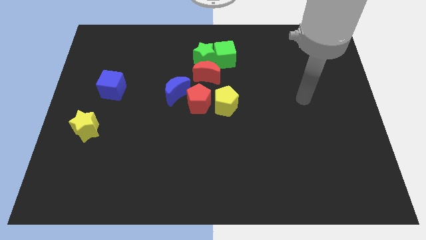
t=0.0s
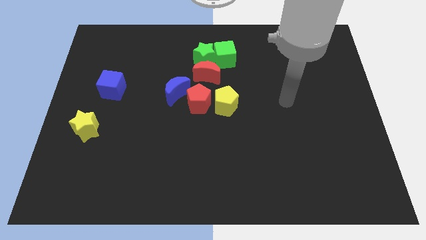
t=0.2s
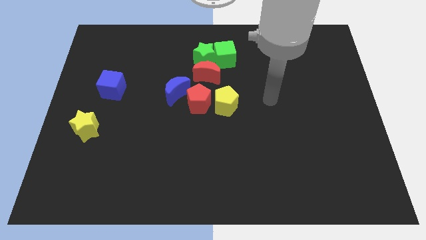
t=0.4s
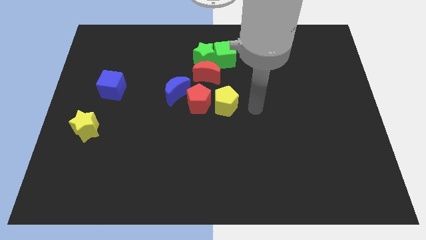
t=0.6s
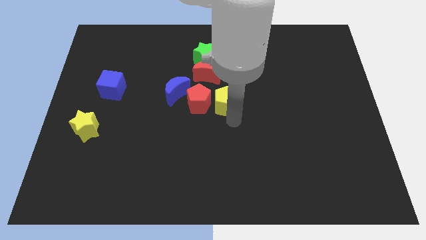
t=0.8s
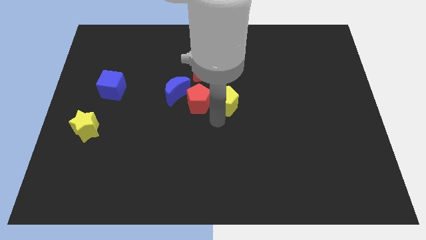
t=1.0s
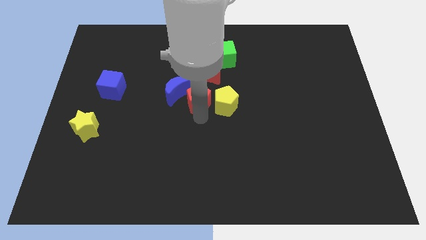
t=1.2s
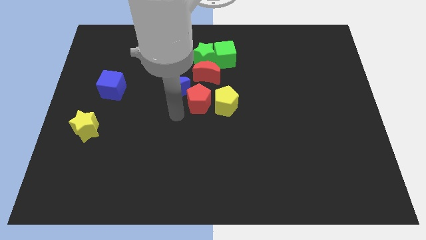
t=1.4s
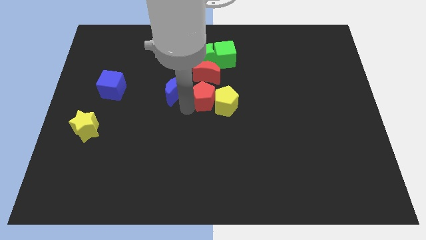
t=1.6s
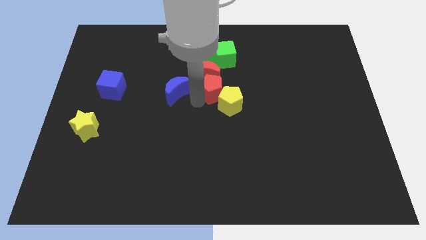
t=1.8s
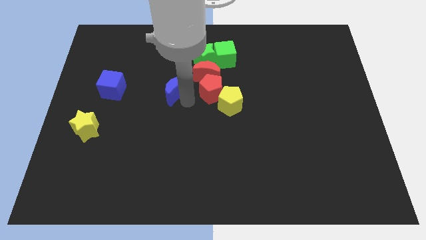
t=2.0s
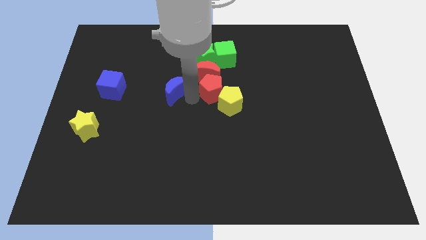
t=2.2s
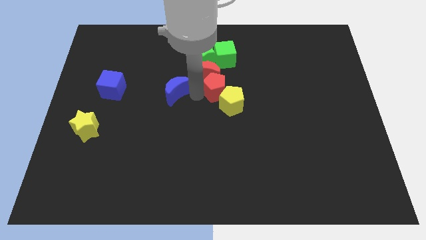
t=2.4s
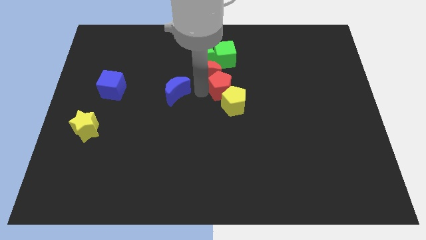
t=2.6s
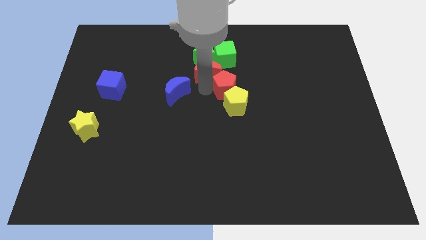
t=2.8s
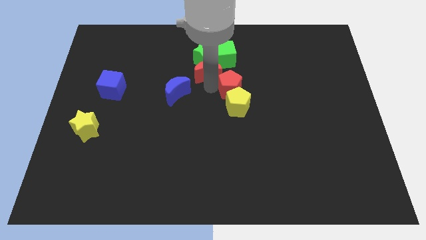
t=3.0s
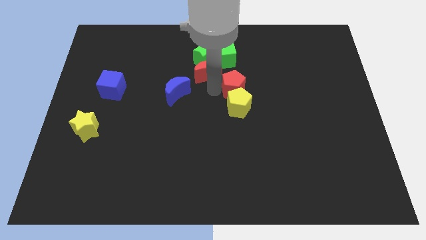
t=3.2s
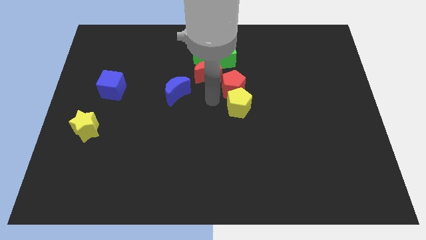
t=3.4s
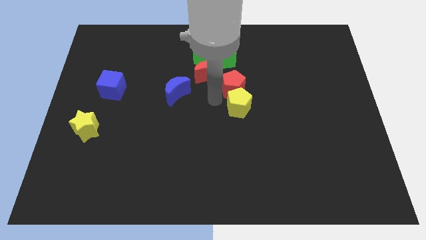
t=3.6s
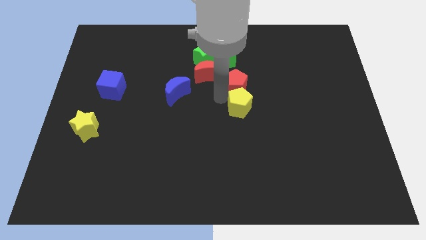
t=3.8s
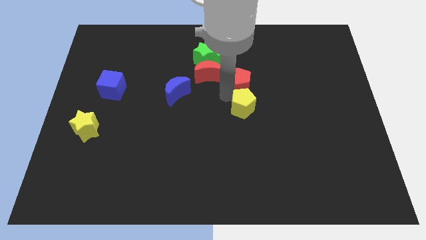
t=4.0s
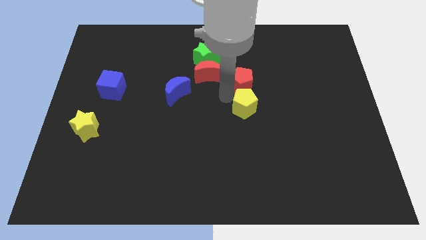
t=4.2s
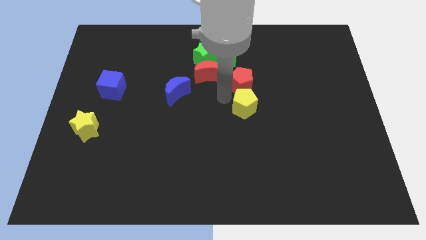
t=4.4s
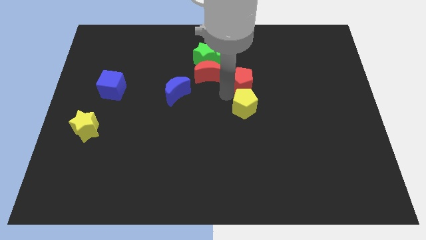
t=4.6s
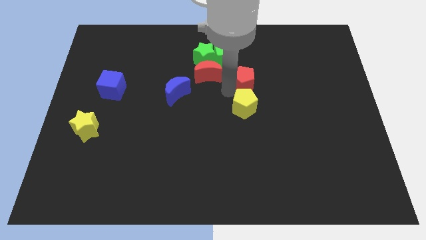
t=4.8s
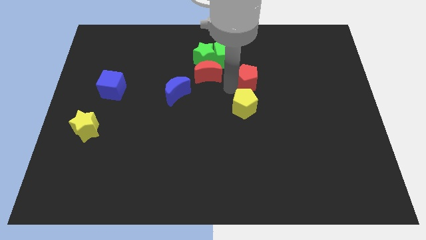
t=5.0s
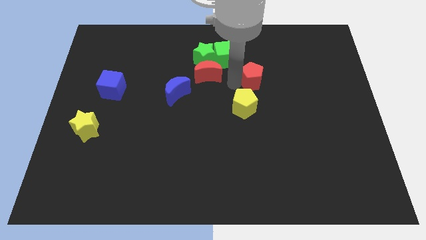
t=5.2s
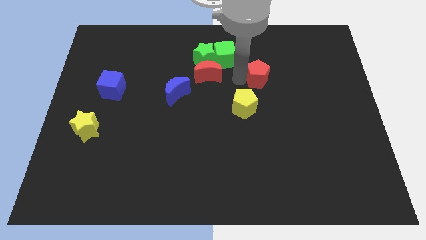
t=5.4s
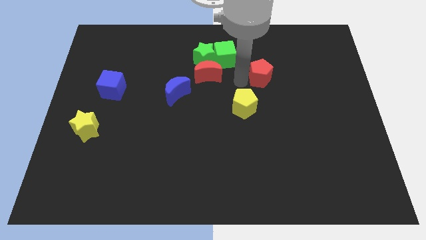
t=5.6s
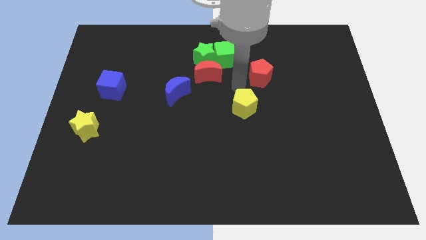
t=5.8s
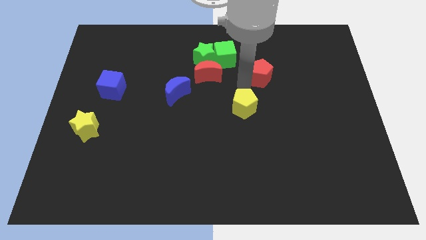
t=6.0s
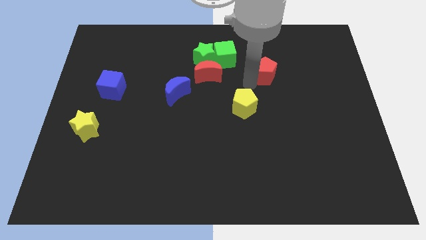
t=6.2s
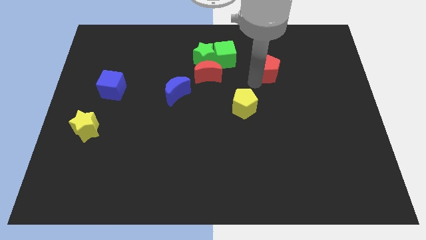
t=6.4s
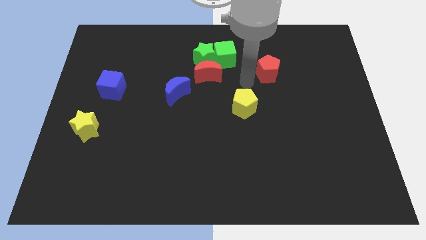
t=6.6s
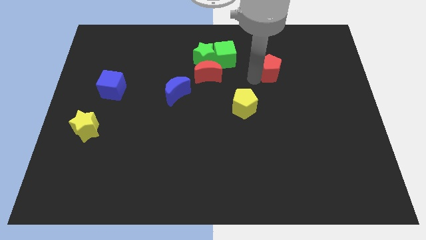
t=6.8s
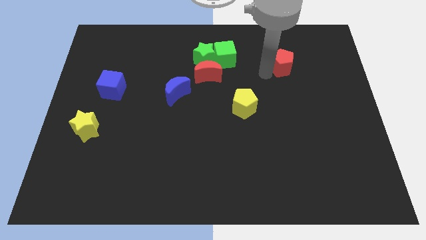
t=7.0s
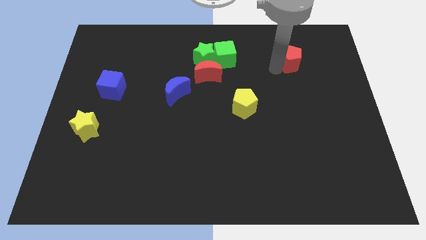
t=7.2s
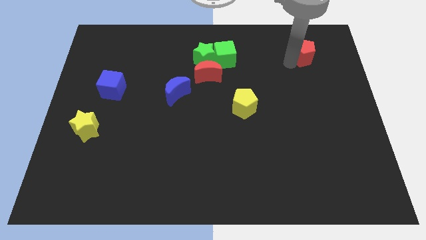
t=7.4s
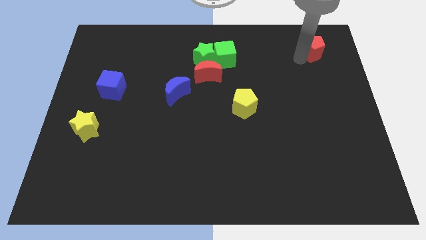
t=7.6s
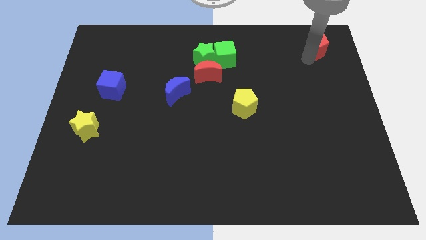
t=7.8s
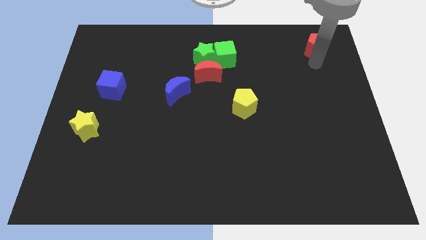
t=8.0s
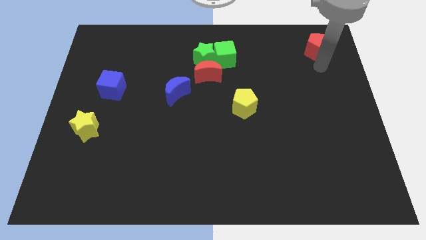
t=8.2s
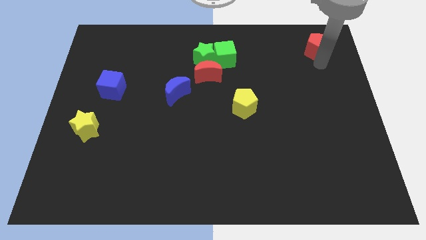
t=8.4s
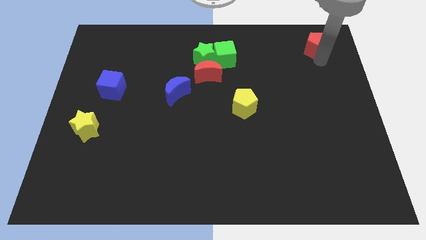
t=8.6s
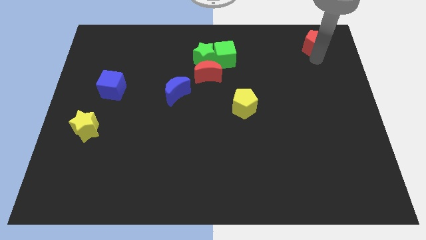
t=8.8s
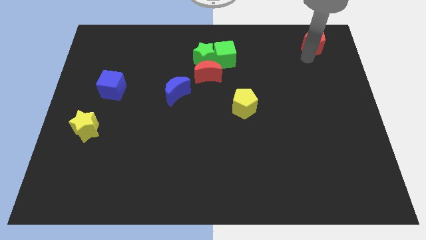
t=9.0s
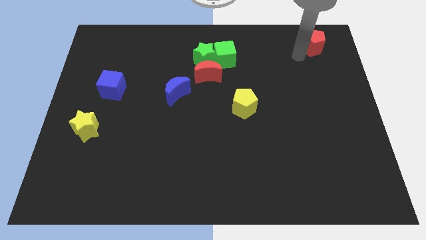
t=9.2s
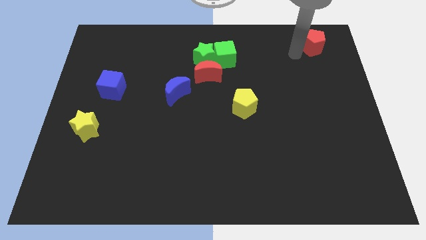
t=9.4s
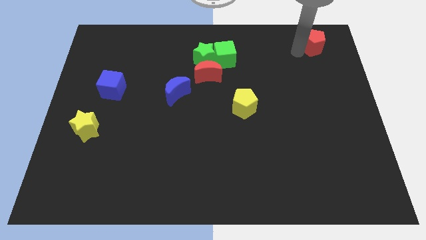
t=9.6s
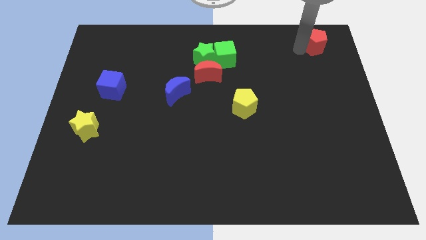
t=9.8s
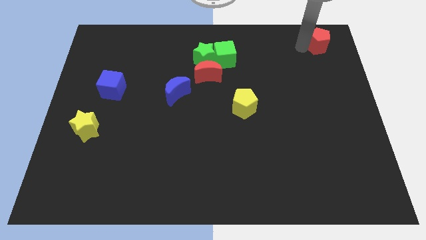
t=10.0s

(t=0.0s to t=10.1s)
slide the red pentagon to the top right corner

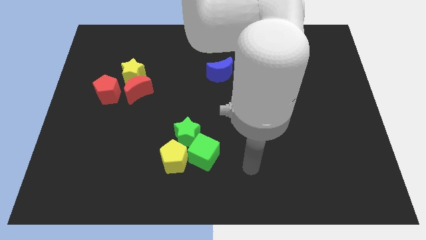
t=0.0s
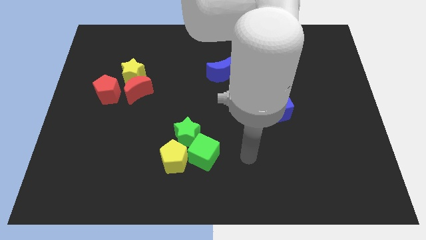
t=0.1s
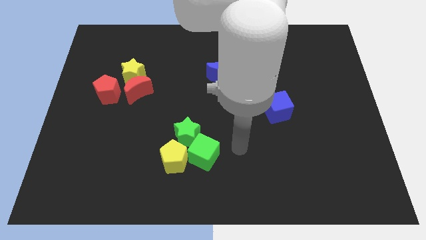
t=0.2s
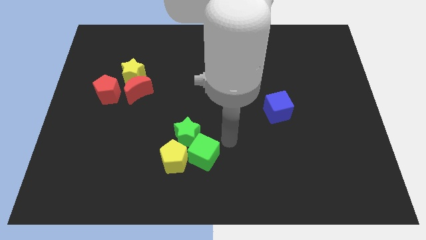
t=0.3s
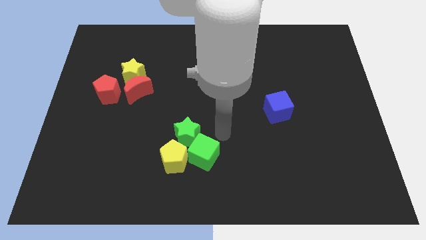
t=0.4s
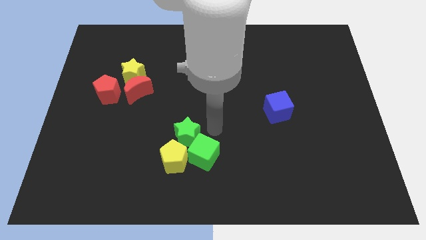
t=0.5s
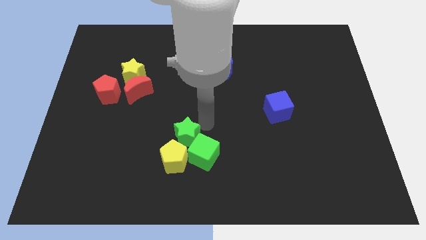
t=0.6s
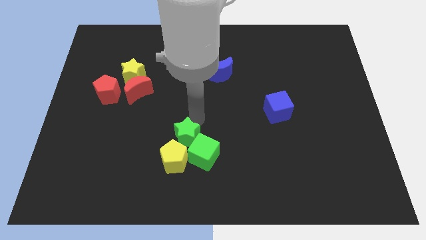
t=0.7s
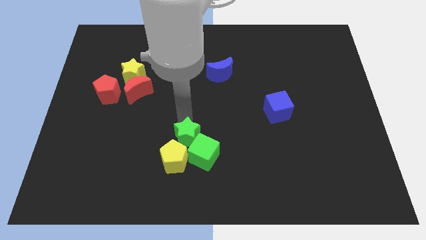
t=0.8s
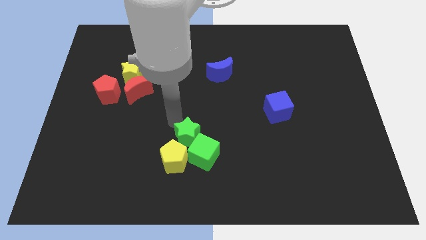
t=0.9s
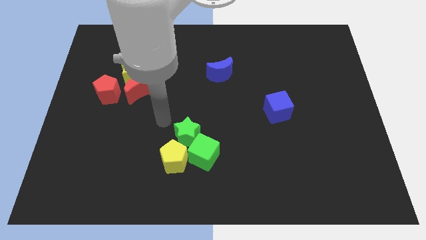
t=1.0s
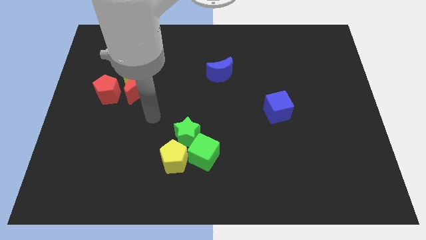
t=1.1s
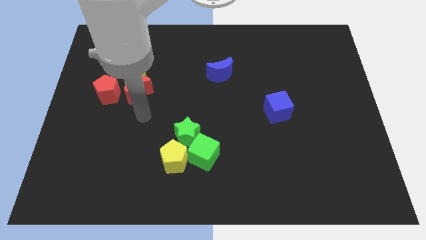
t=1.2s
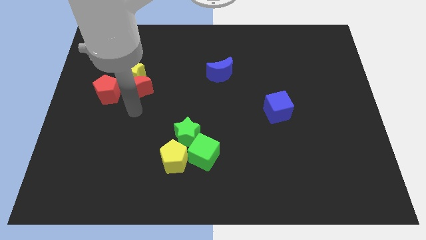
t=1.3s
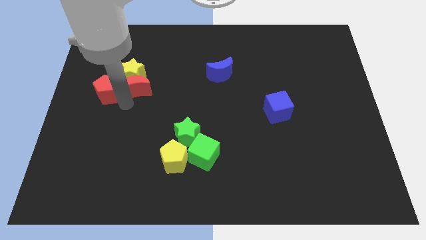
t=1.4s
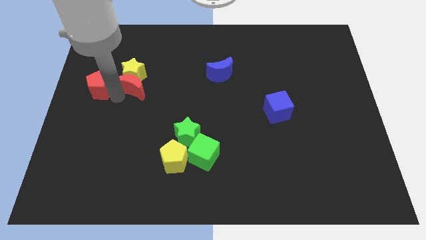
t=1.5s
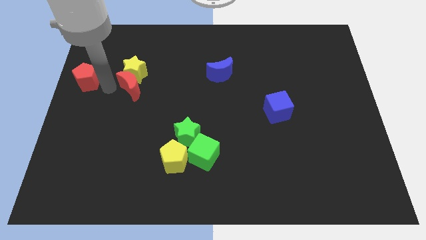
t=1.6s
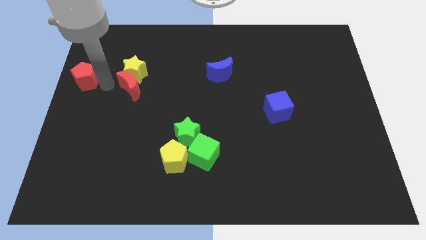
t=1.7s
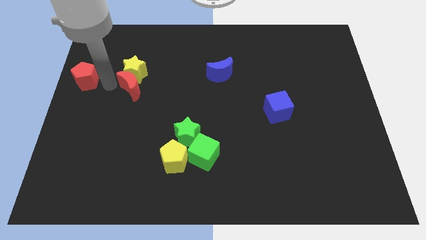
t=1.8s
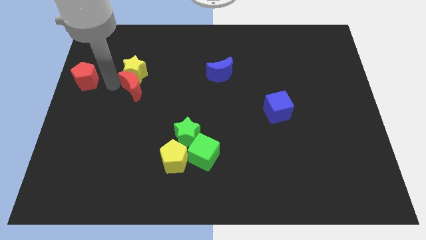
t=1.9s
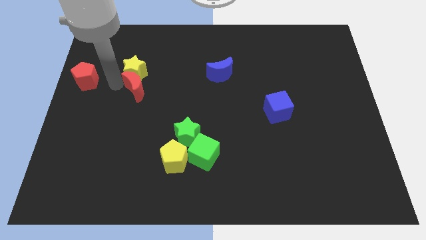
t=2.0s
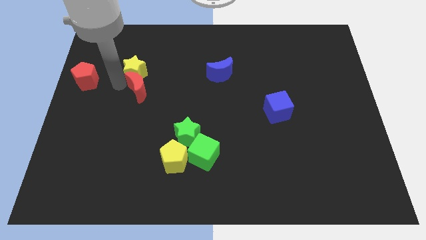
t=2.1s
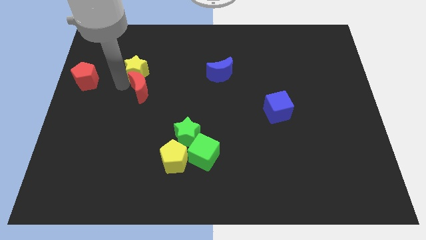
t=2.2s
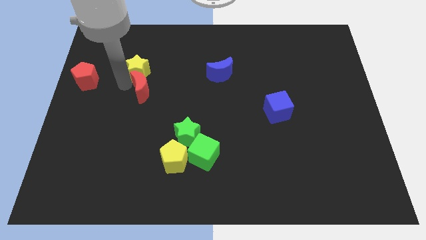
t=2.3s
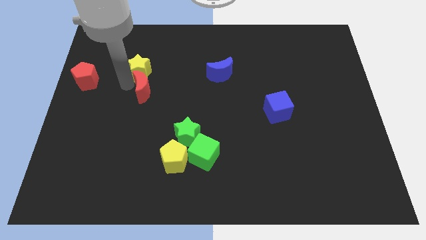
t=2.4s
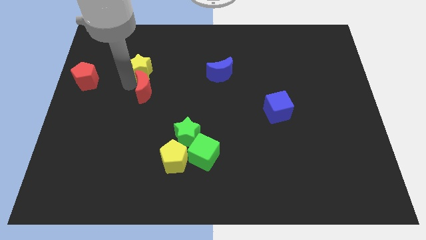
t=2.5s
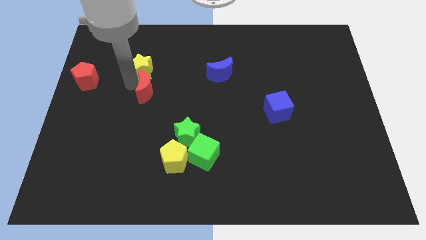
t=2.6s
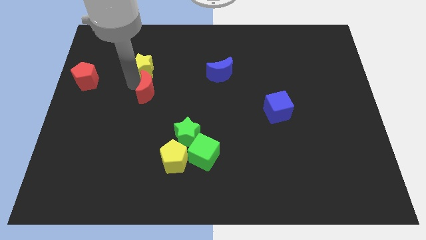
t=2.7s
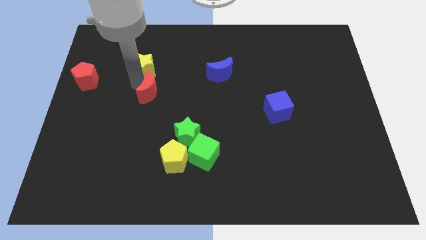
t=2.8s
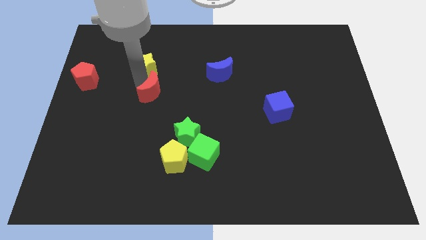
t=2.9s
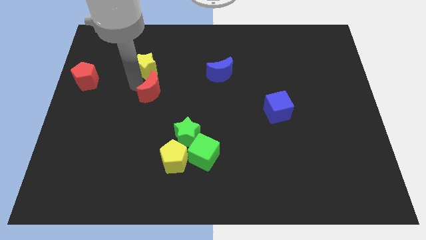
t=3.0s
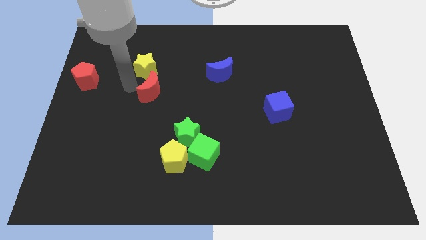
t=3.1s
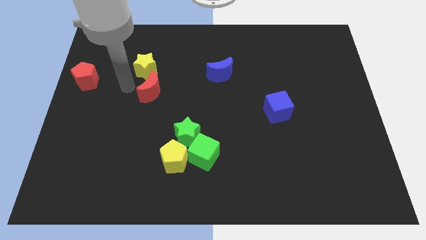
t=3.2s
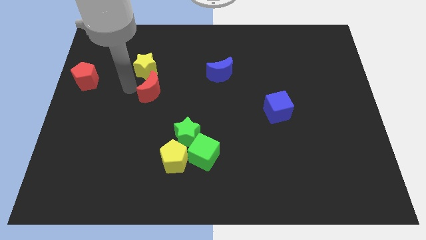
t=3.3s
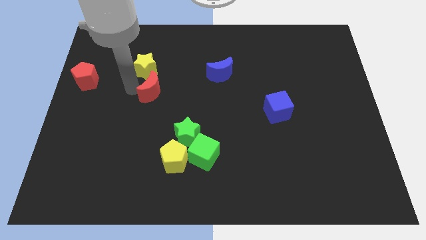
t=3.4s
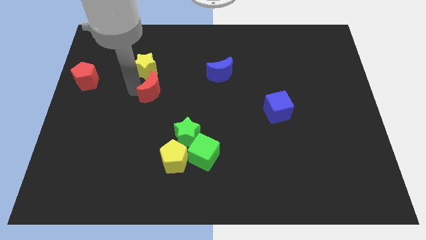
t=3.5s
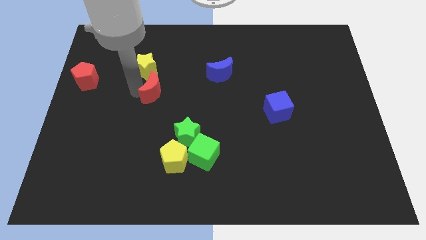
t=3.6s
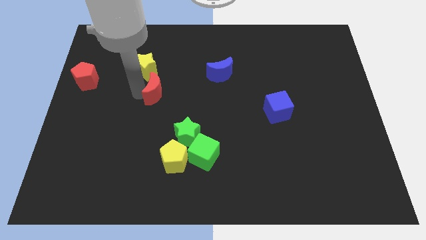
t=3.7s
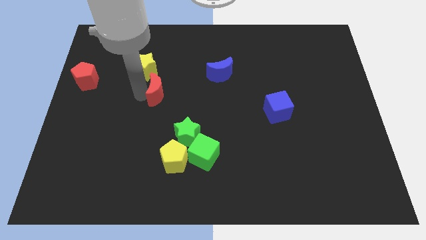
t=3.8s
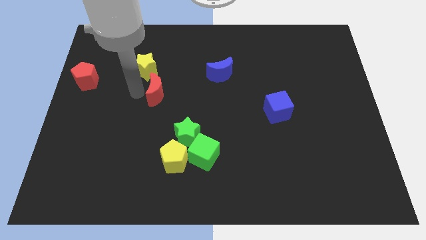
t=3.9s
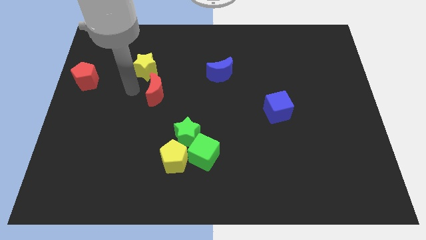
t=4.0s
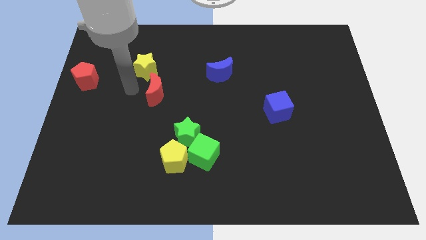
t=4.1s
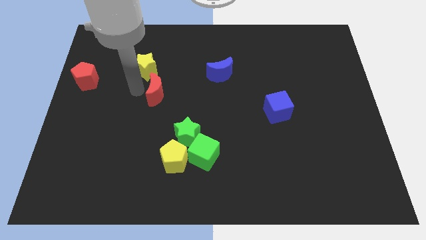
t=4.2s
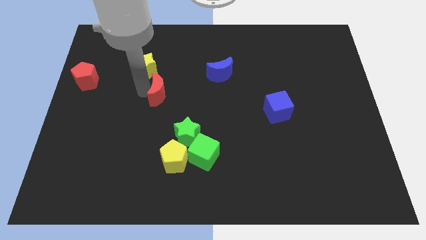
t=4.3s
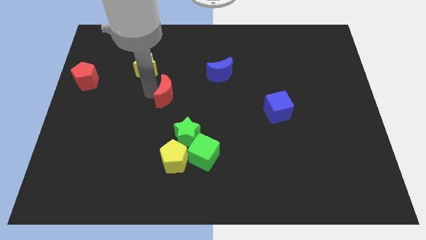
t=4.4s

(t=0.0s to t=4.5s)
push the red moon to the middle
